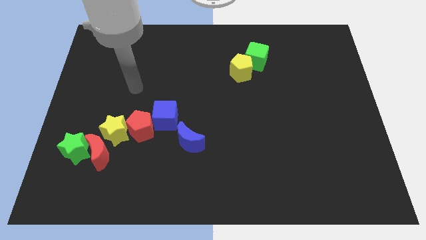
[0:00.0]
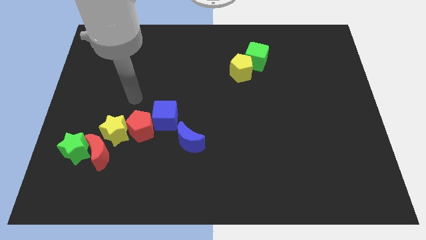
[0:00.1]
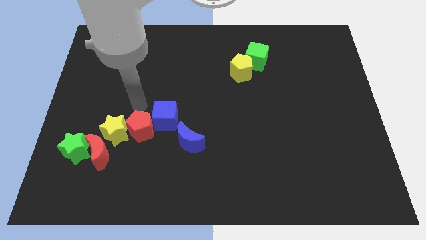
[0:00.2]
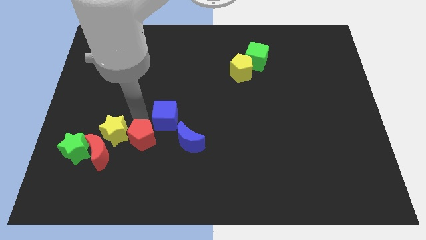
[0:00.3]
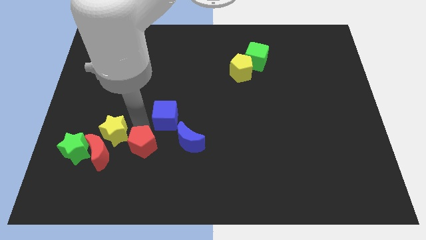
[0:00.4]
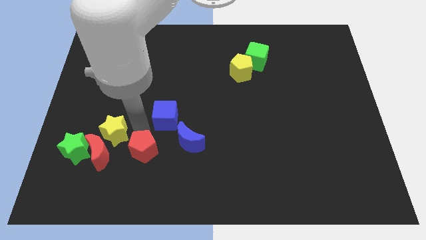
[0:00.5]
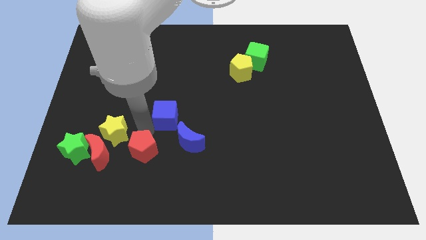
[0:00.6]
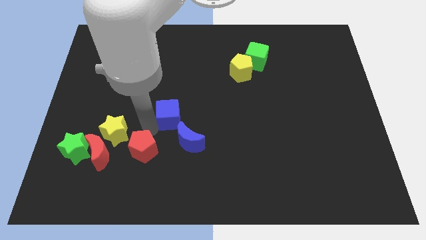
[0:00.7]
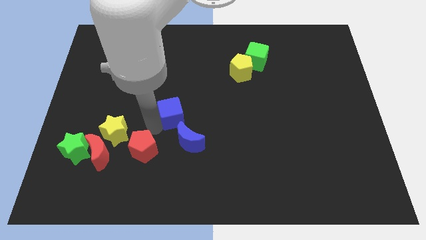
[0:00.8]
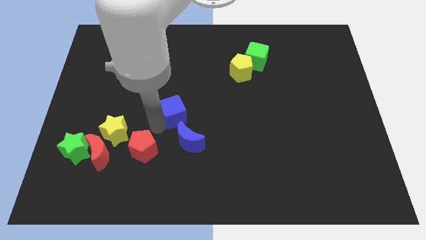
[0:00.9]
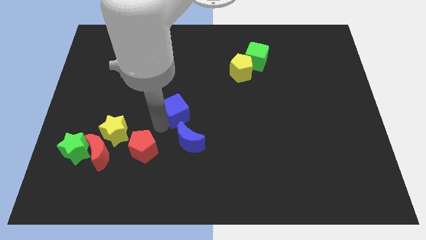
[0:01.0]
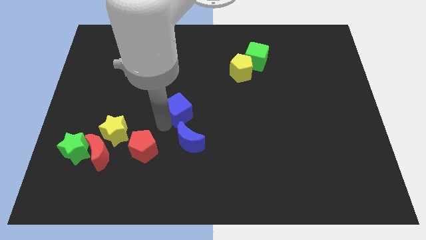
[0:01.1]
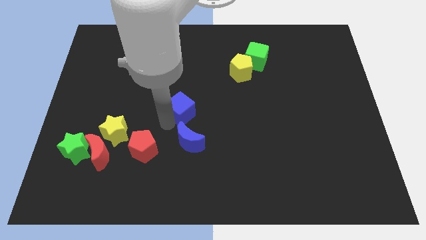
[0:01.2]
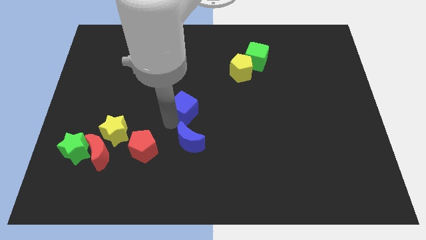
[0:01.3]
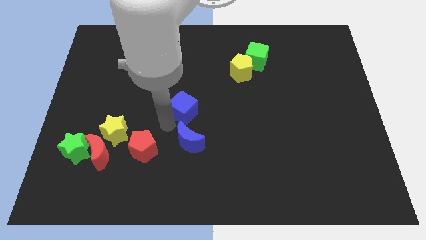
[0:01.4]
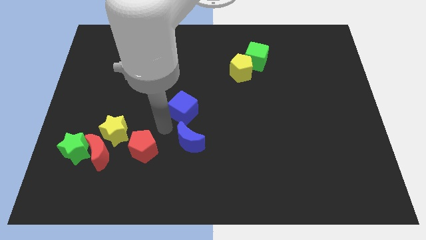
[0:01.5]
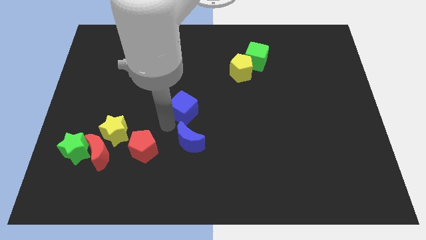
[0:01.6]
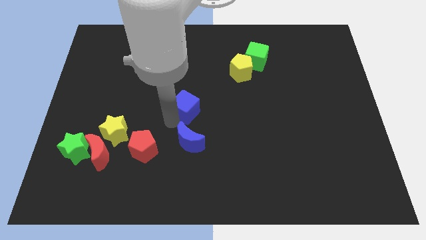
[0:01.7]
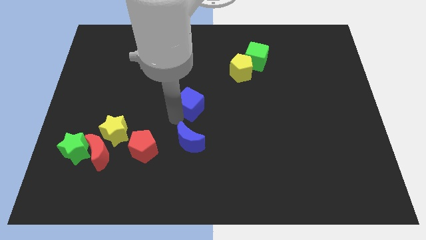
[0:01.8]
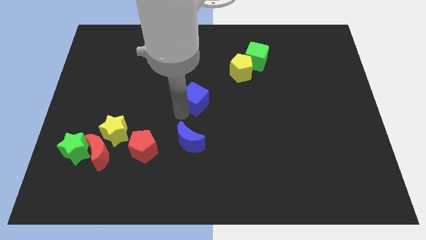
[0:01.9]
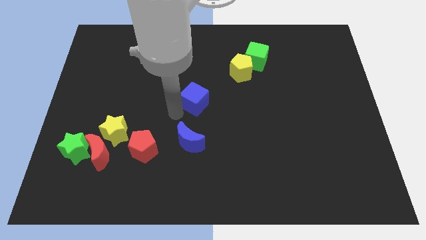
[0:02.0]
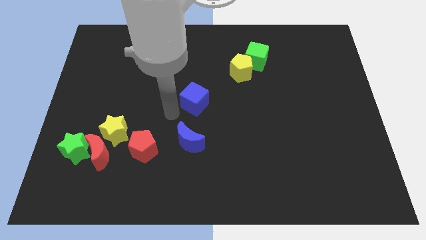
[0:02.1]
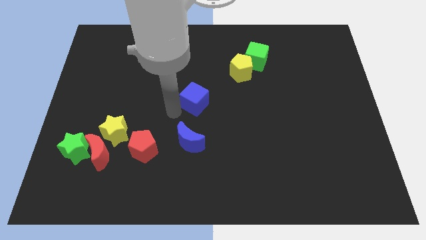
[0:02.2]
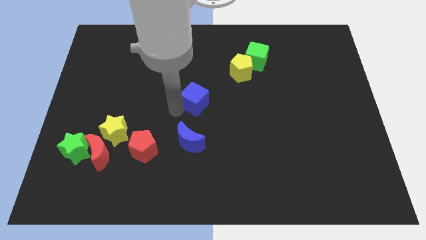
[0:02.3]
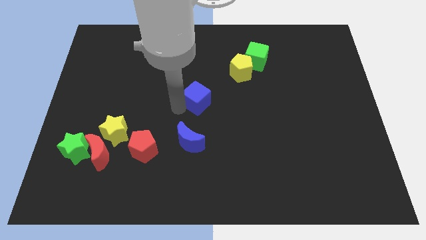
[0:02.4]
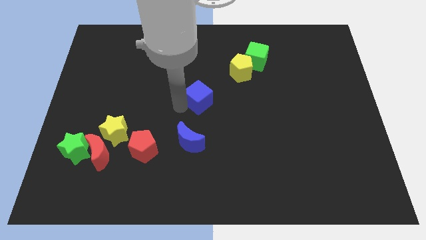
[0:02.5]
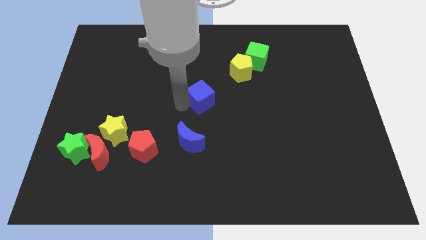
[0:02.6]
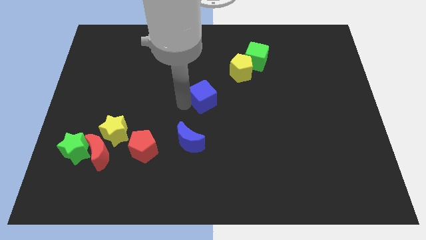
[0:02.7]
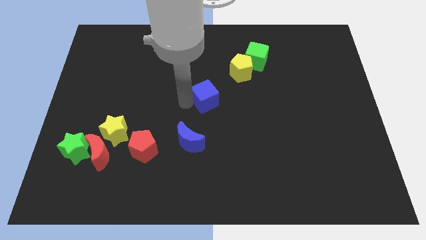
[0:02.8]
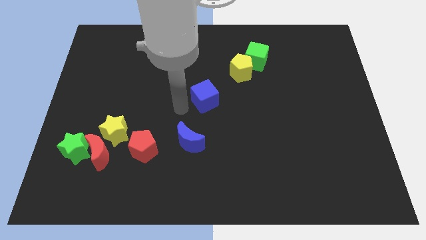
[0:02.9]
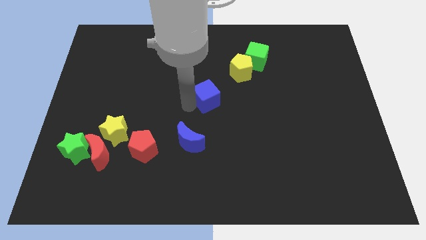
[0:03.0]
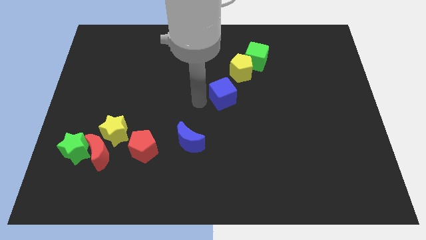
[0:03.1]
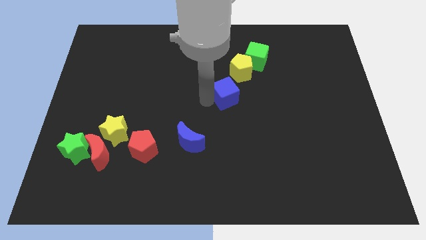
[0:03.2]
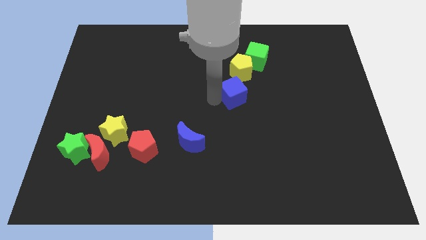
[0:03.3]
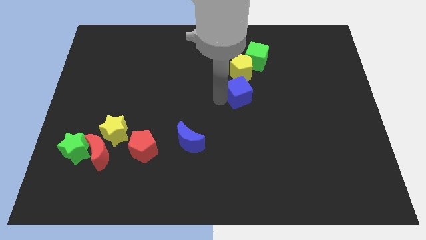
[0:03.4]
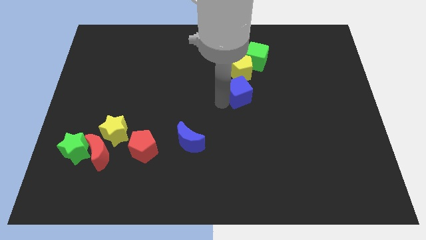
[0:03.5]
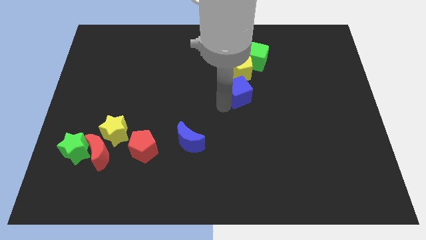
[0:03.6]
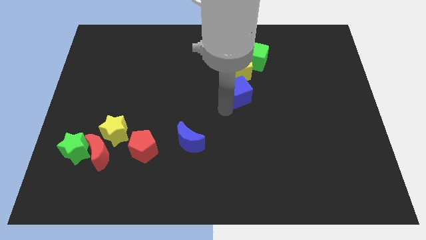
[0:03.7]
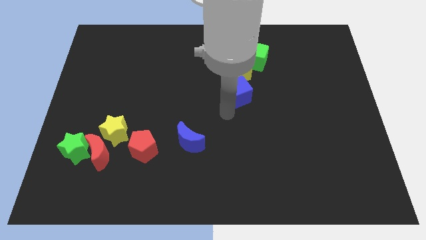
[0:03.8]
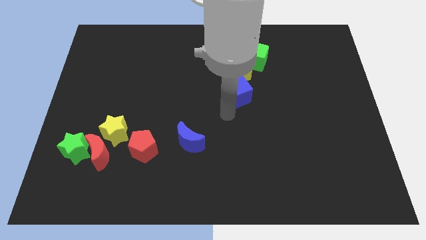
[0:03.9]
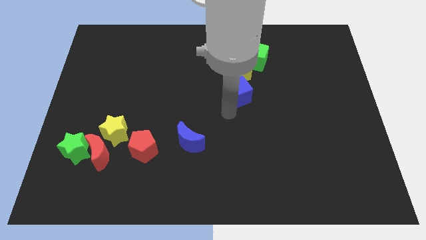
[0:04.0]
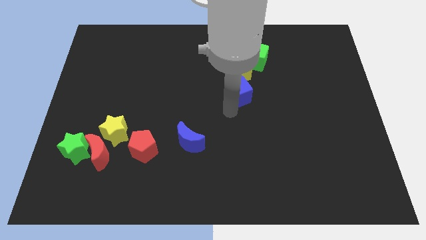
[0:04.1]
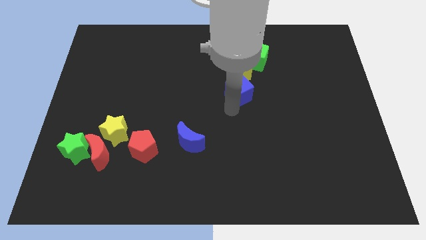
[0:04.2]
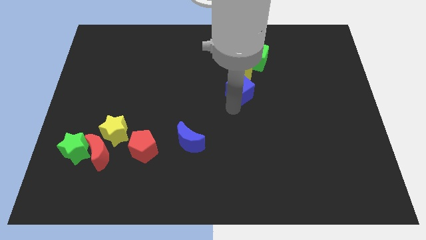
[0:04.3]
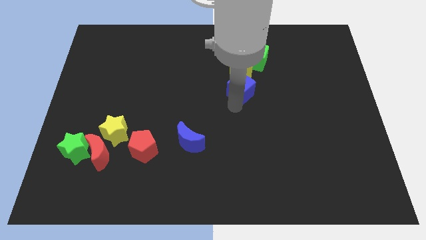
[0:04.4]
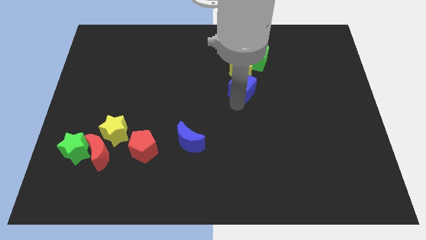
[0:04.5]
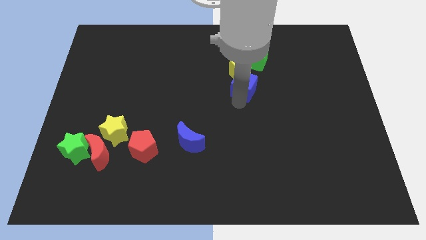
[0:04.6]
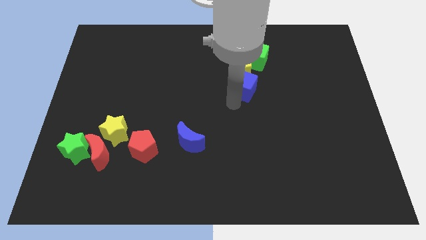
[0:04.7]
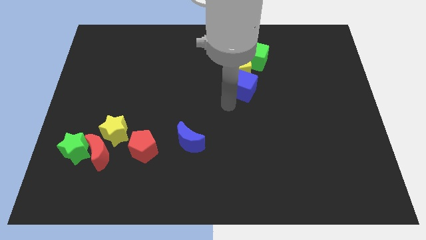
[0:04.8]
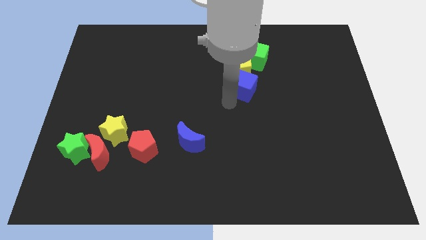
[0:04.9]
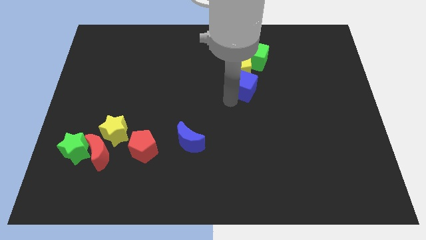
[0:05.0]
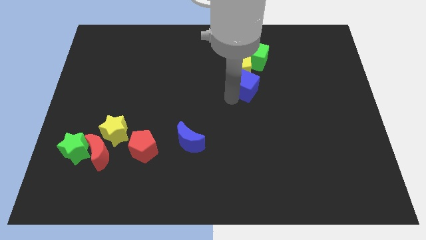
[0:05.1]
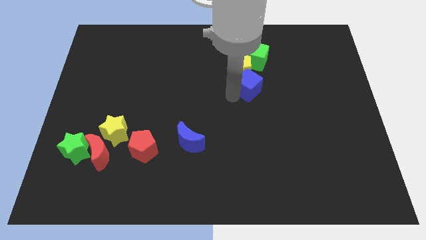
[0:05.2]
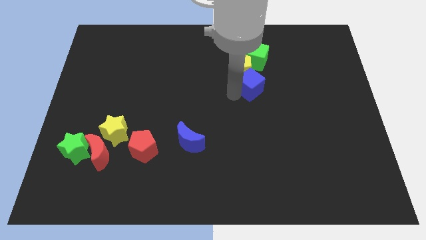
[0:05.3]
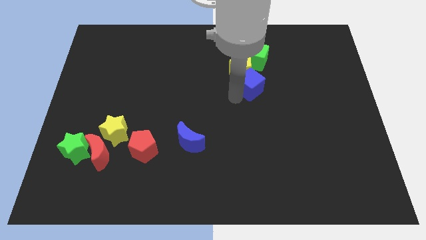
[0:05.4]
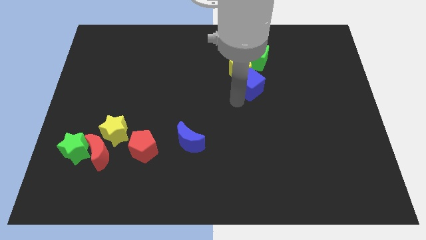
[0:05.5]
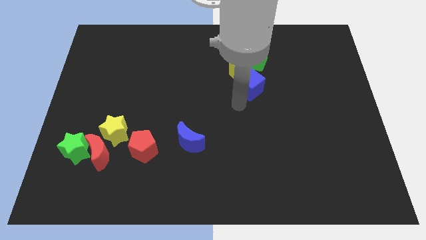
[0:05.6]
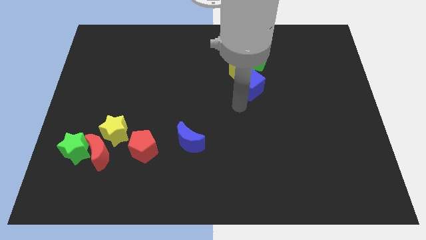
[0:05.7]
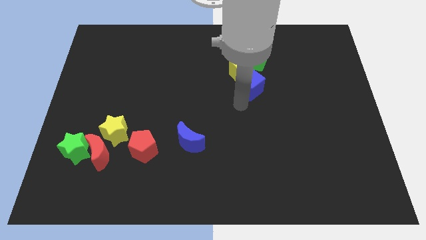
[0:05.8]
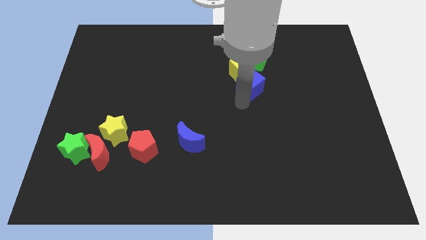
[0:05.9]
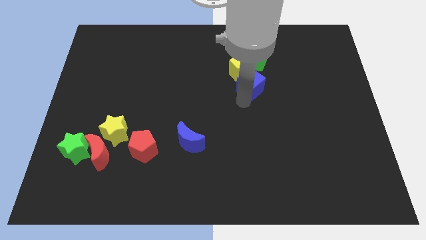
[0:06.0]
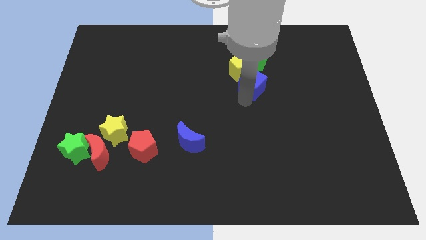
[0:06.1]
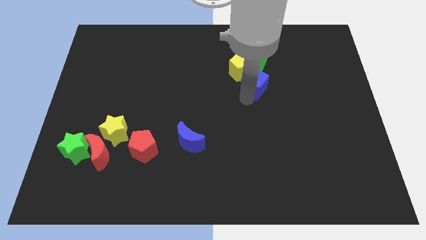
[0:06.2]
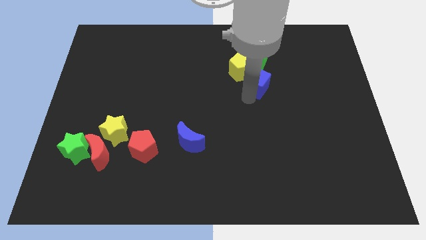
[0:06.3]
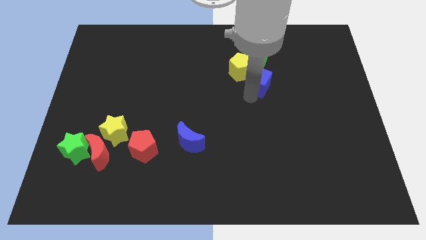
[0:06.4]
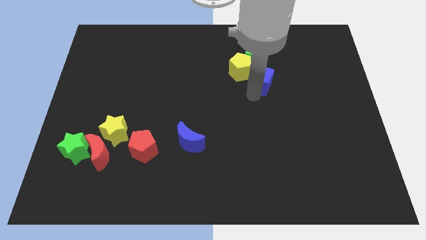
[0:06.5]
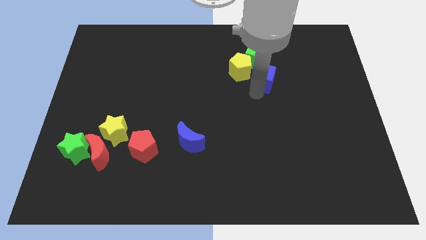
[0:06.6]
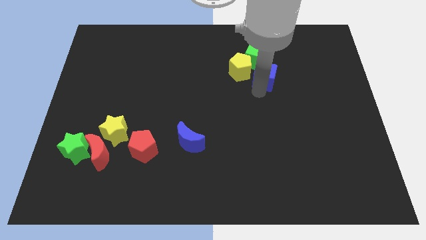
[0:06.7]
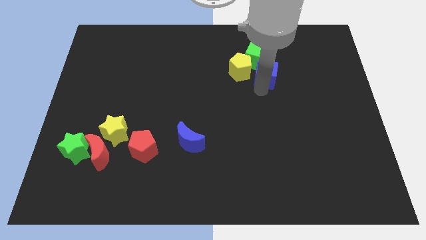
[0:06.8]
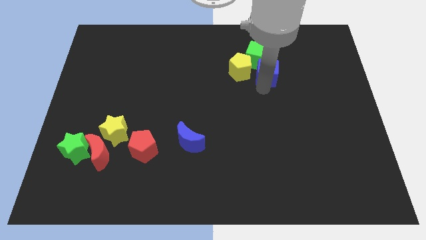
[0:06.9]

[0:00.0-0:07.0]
put the blue cube next to the green cube

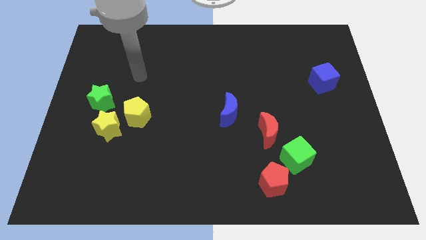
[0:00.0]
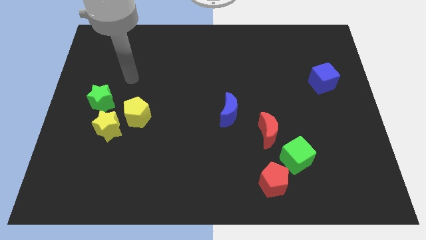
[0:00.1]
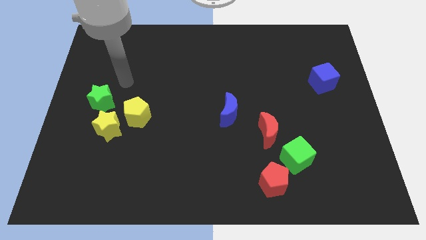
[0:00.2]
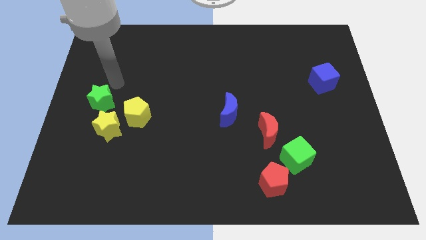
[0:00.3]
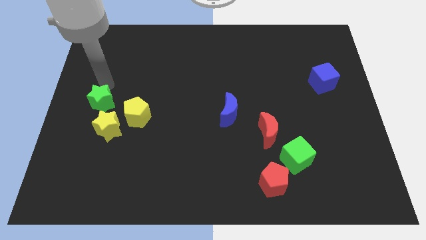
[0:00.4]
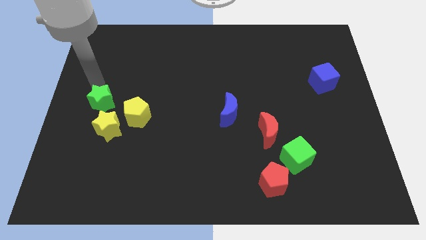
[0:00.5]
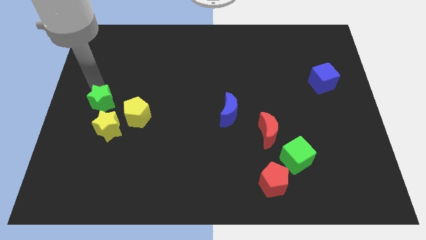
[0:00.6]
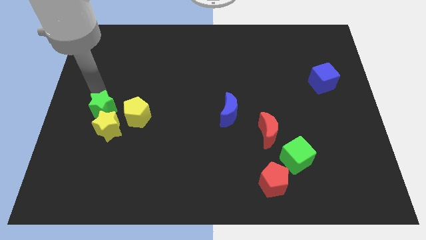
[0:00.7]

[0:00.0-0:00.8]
move the green star to the yellow star
